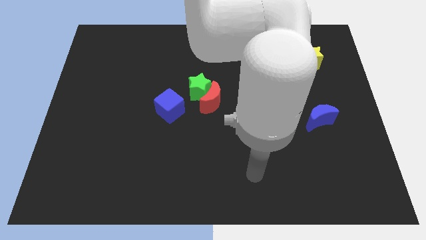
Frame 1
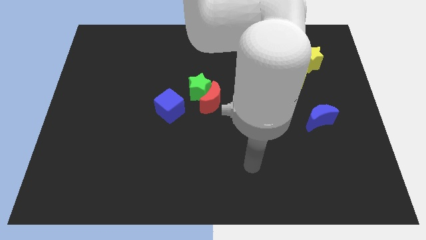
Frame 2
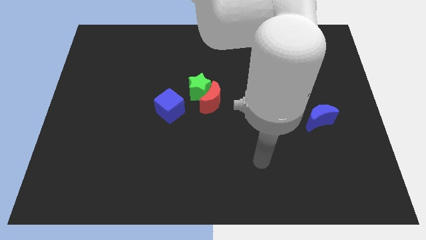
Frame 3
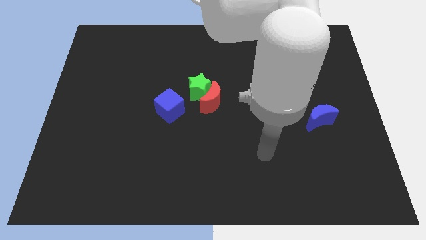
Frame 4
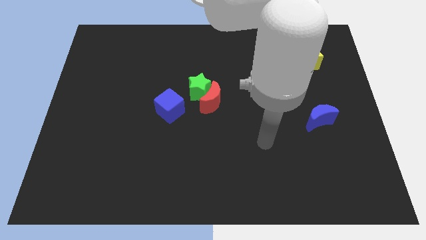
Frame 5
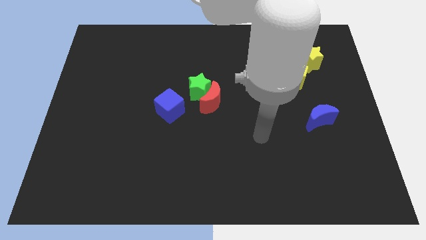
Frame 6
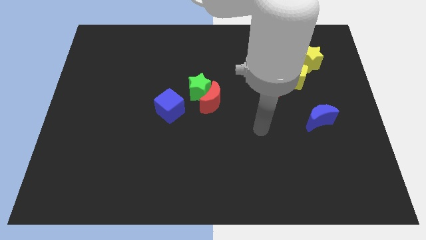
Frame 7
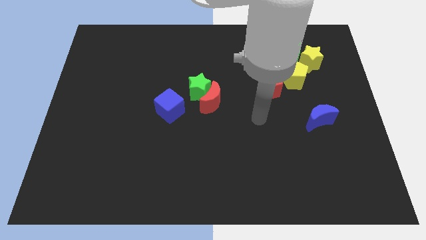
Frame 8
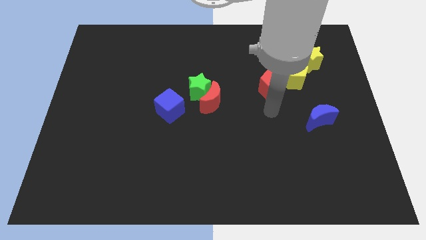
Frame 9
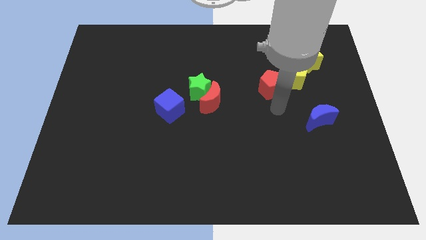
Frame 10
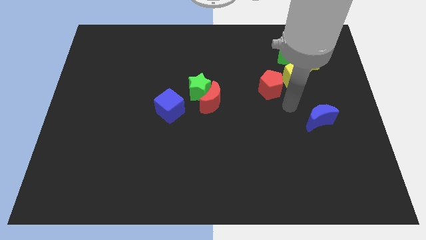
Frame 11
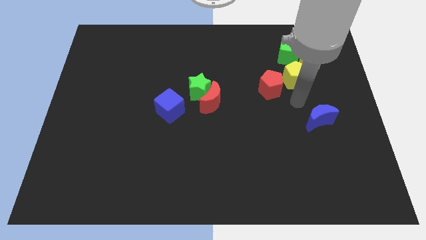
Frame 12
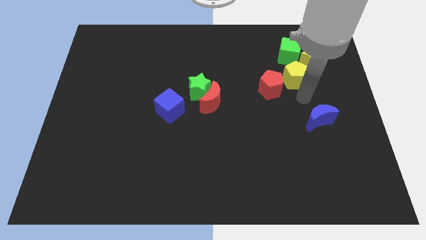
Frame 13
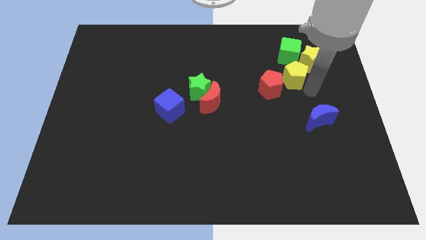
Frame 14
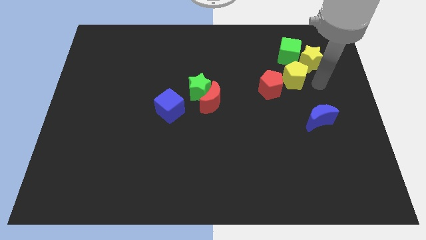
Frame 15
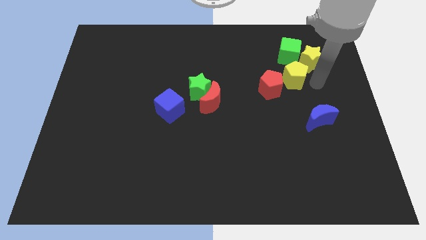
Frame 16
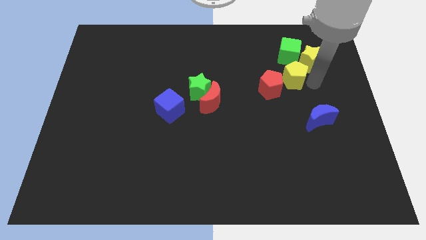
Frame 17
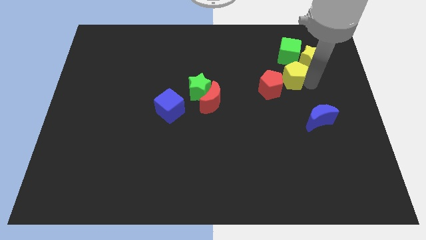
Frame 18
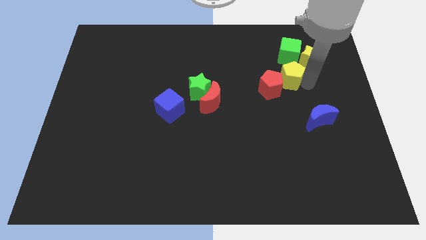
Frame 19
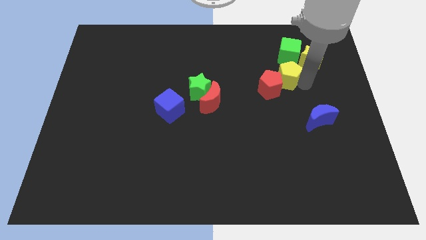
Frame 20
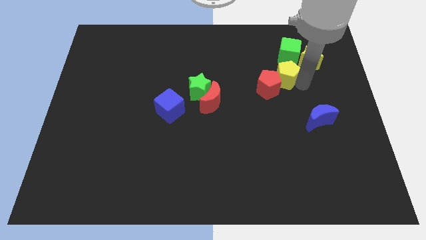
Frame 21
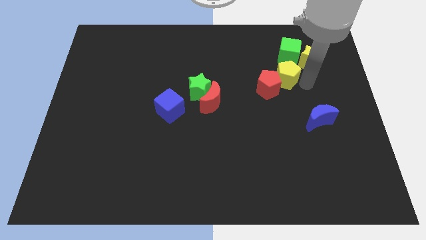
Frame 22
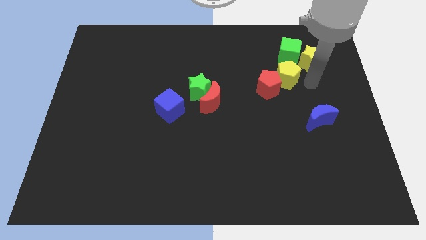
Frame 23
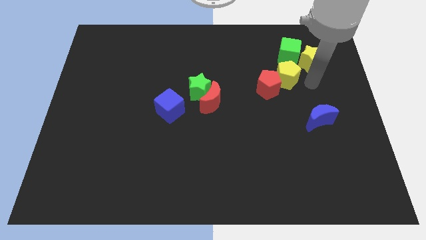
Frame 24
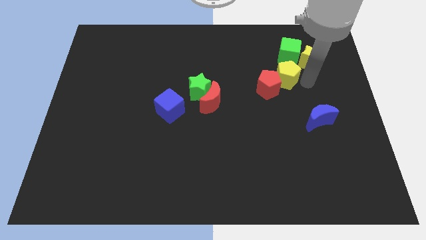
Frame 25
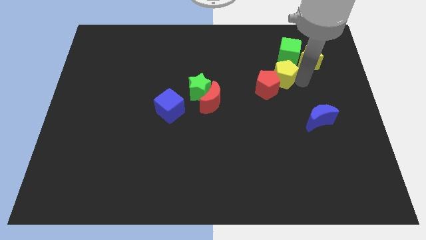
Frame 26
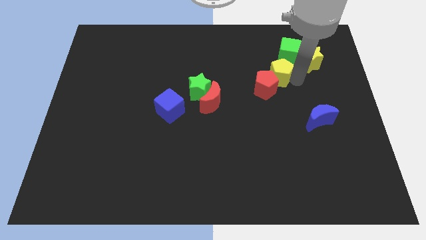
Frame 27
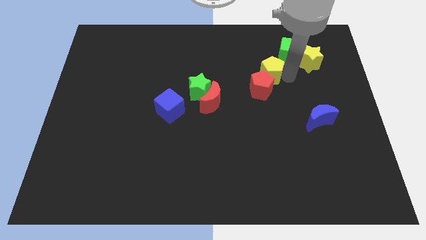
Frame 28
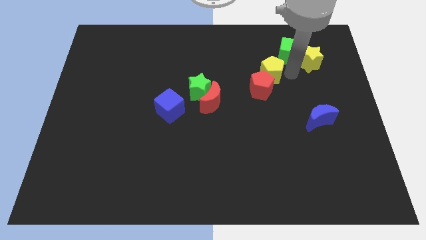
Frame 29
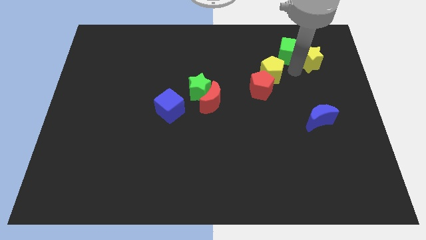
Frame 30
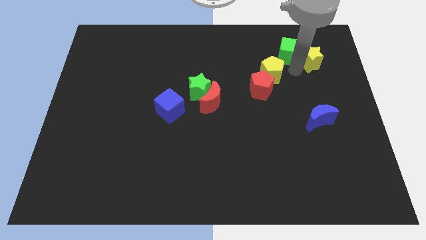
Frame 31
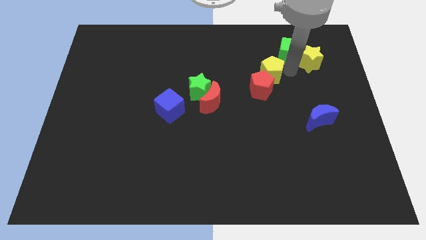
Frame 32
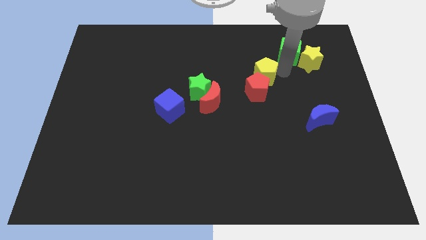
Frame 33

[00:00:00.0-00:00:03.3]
push the yellow pentagon to the left a little

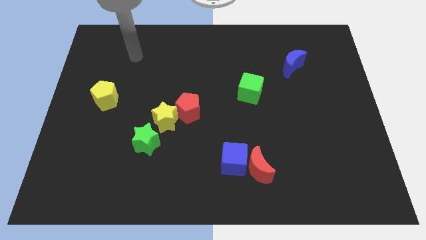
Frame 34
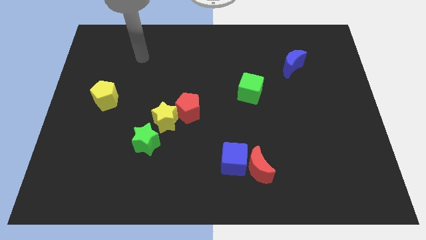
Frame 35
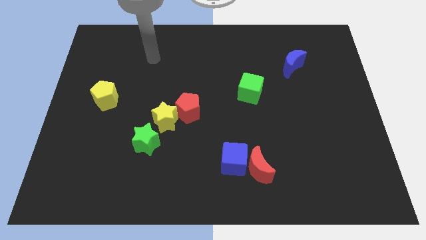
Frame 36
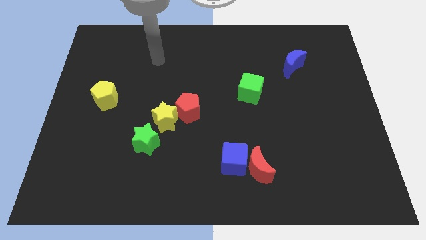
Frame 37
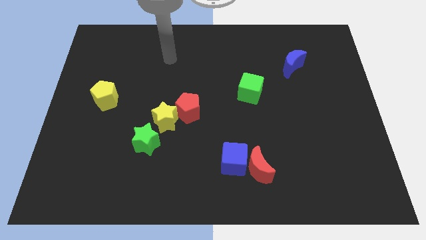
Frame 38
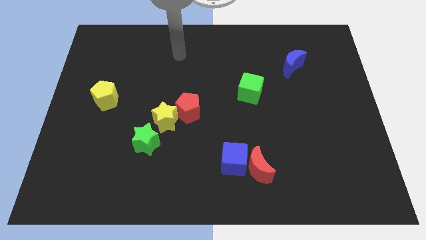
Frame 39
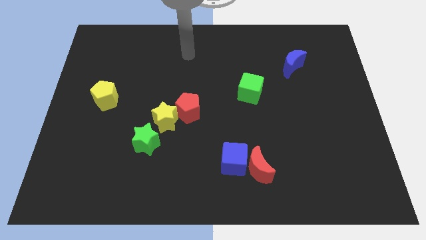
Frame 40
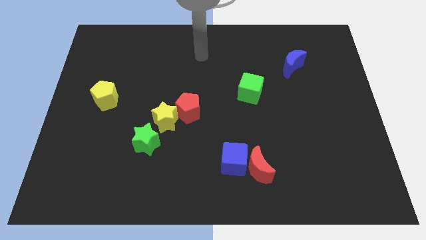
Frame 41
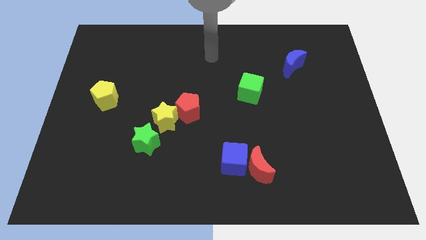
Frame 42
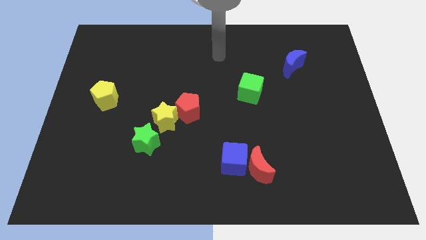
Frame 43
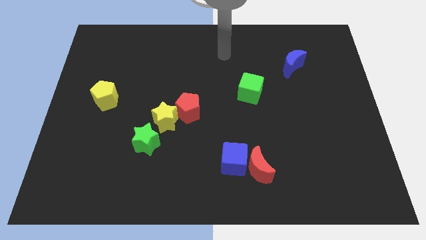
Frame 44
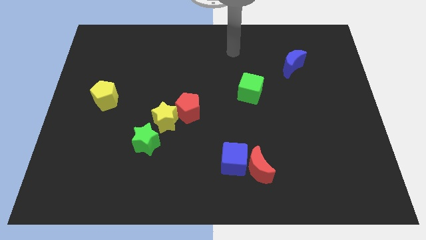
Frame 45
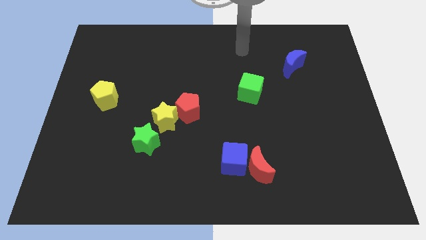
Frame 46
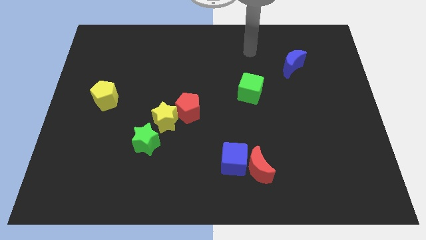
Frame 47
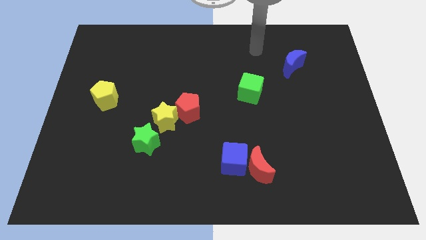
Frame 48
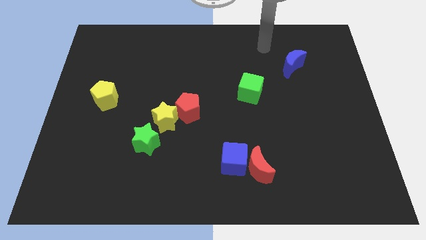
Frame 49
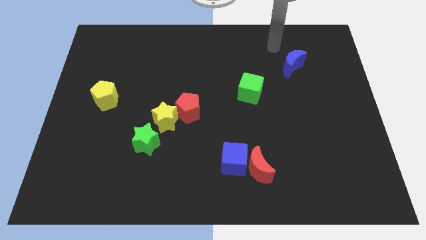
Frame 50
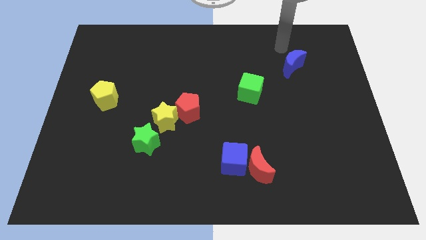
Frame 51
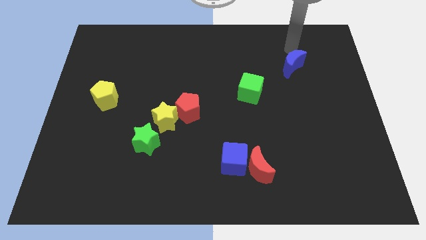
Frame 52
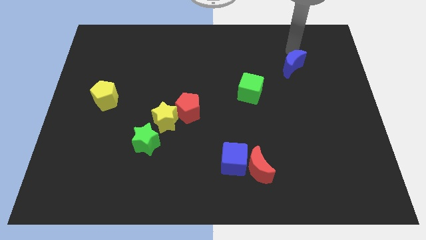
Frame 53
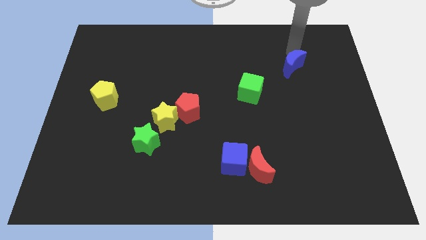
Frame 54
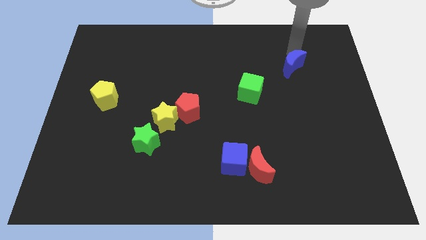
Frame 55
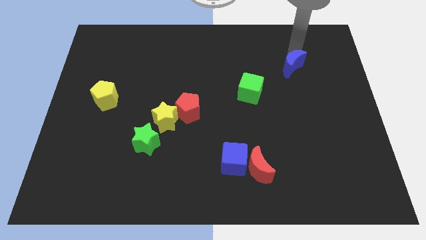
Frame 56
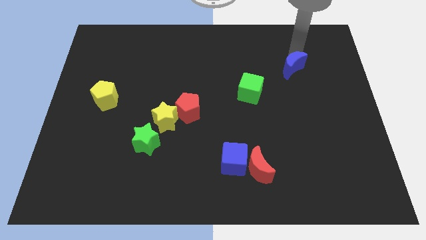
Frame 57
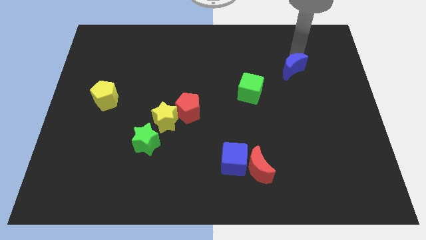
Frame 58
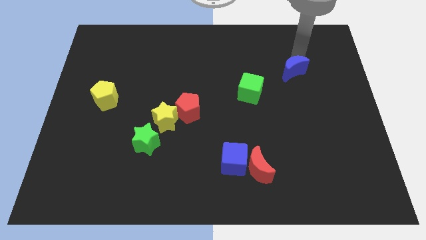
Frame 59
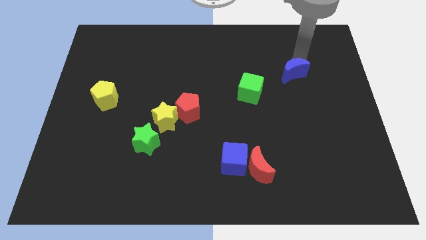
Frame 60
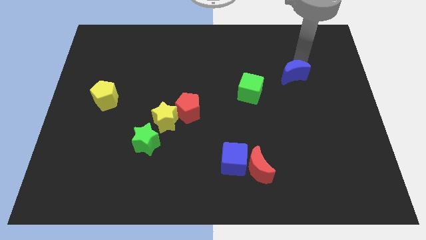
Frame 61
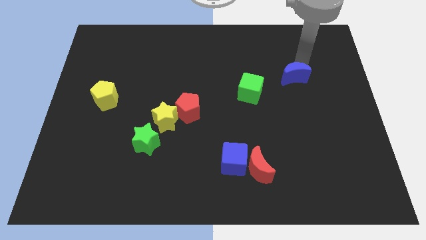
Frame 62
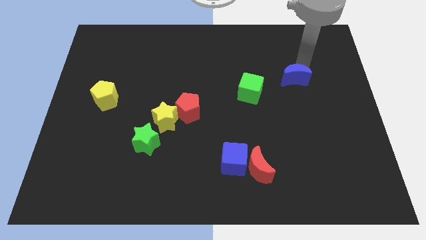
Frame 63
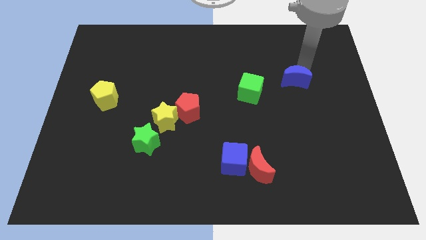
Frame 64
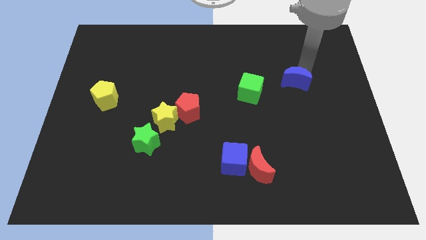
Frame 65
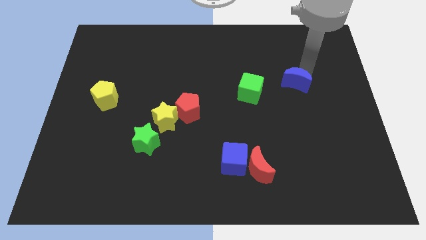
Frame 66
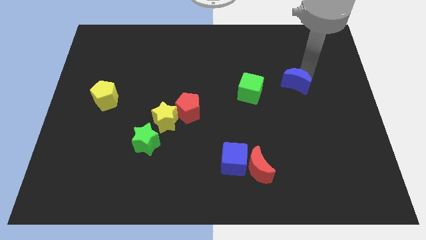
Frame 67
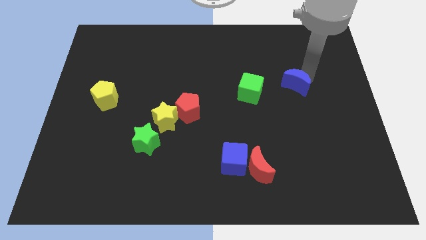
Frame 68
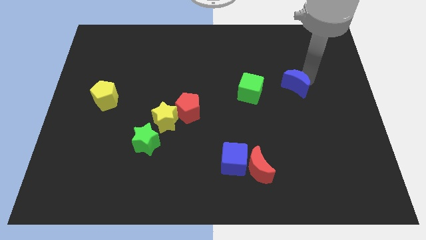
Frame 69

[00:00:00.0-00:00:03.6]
move the blue moon downwards slightly

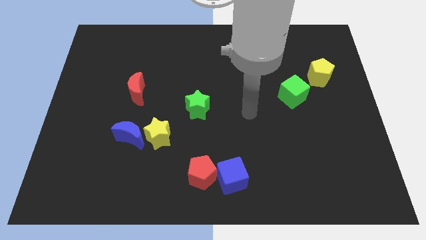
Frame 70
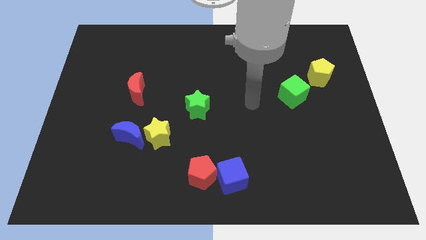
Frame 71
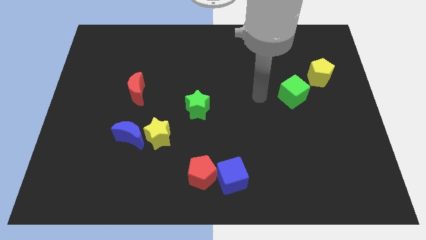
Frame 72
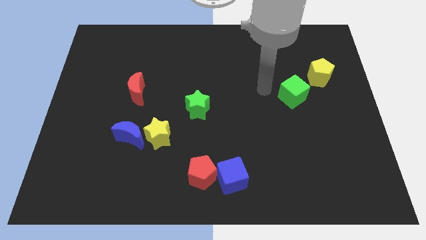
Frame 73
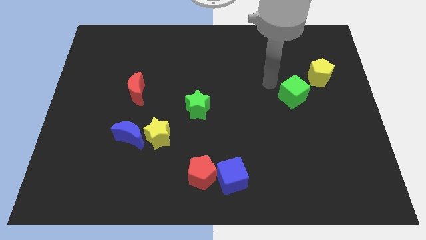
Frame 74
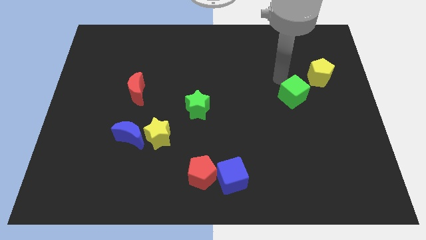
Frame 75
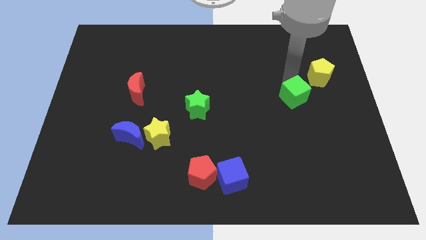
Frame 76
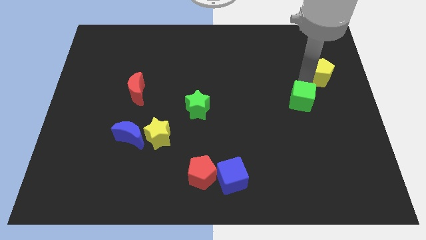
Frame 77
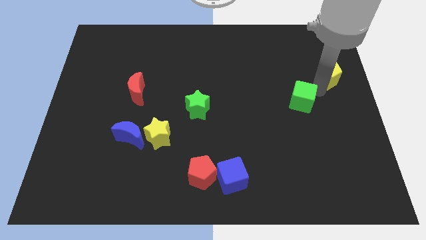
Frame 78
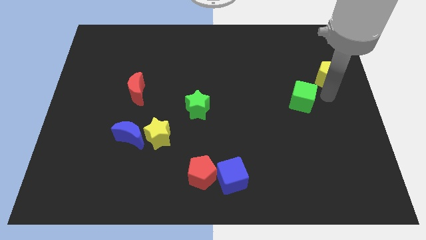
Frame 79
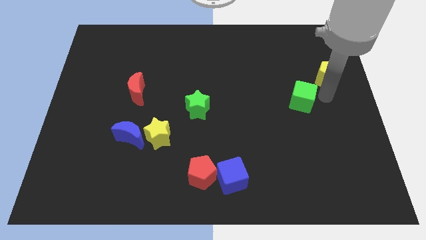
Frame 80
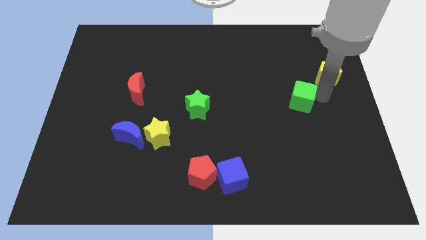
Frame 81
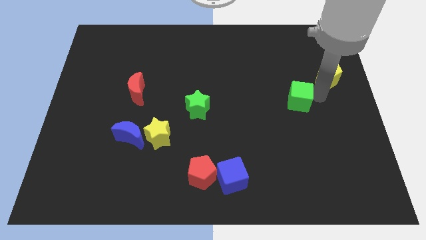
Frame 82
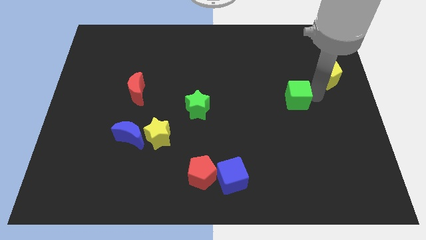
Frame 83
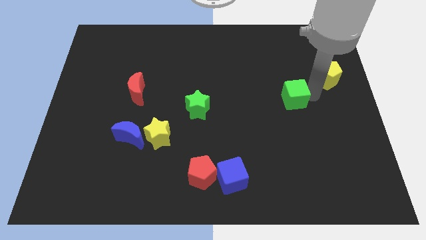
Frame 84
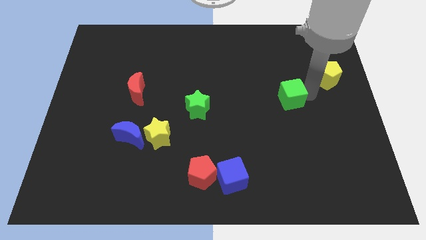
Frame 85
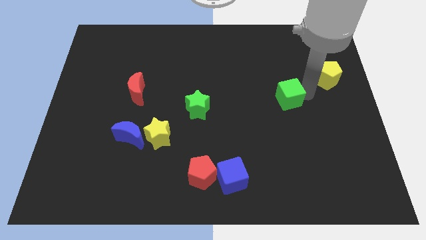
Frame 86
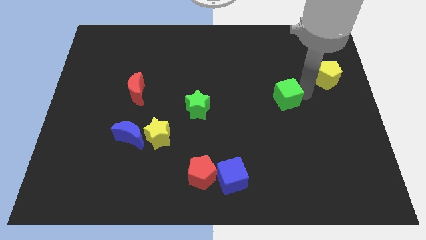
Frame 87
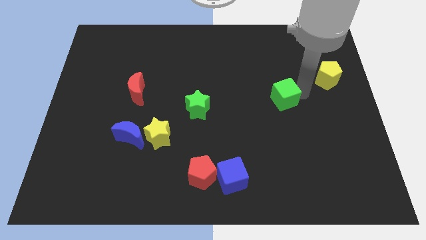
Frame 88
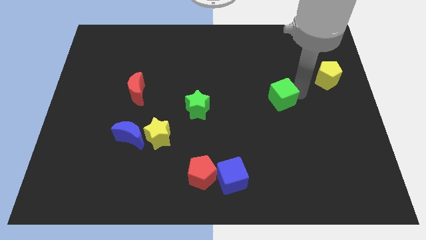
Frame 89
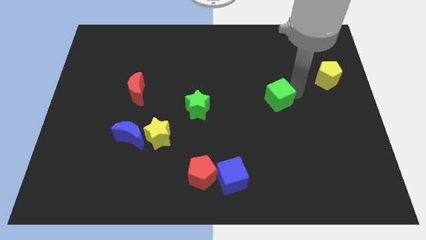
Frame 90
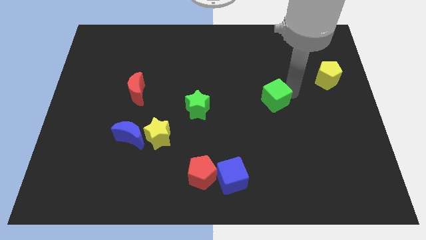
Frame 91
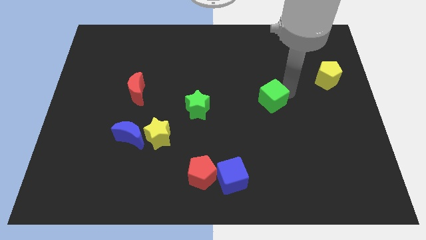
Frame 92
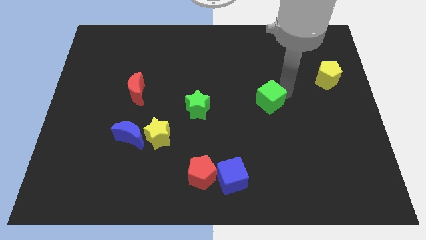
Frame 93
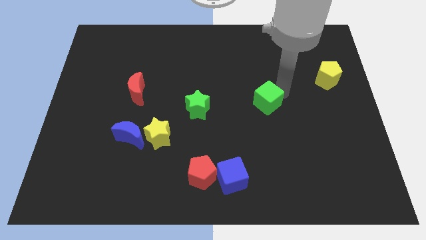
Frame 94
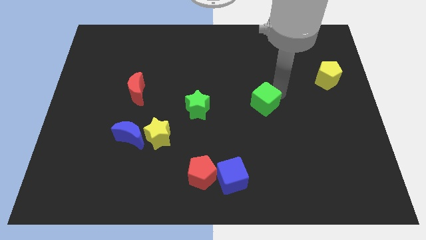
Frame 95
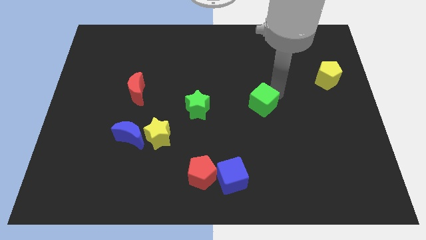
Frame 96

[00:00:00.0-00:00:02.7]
slide the green cube slightly diagonally downwards and to the left
